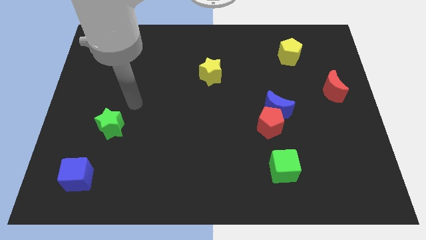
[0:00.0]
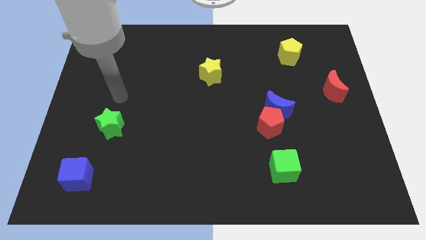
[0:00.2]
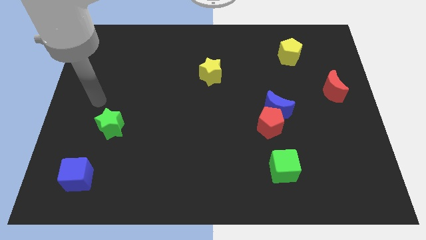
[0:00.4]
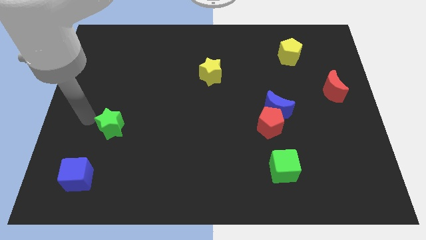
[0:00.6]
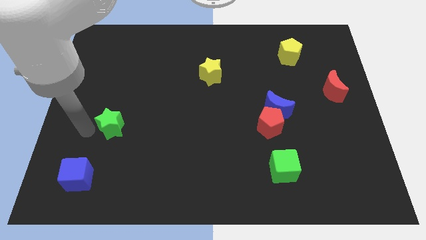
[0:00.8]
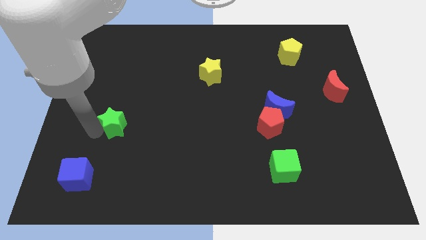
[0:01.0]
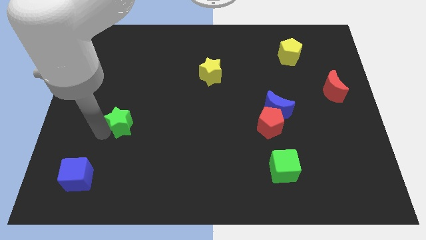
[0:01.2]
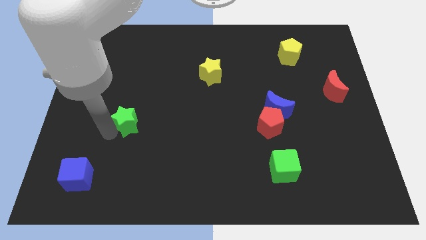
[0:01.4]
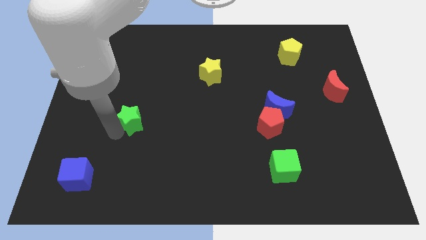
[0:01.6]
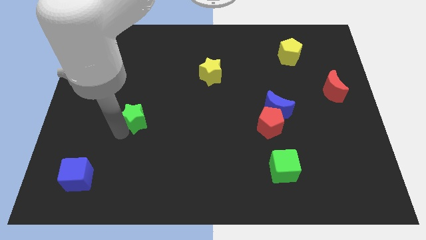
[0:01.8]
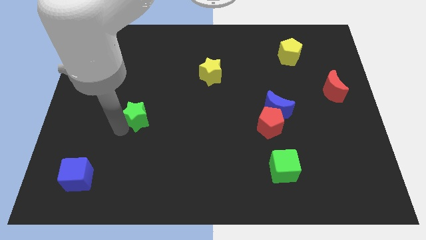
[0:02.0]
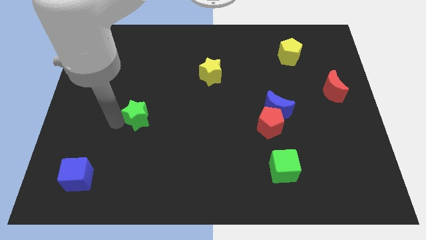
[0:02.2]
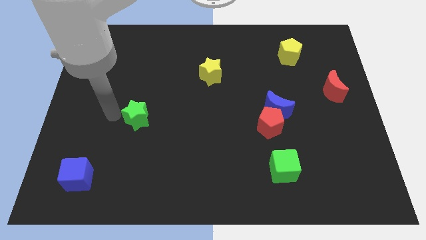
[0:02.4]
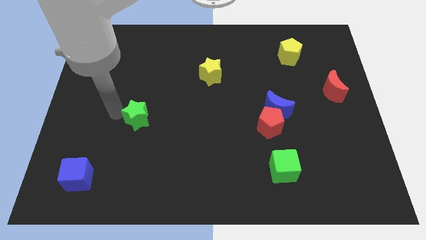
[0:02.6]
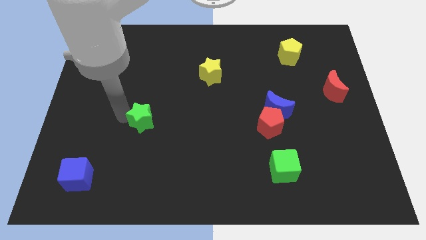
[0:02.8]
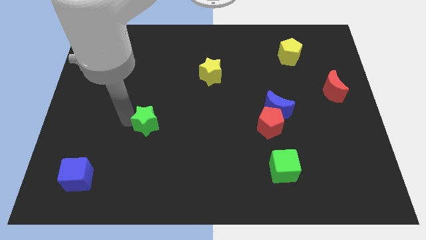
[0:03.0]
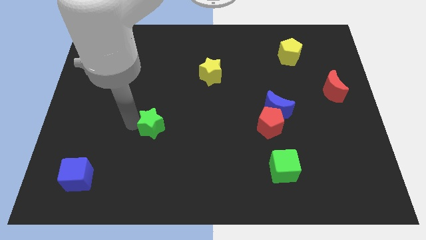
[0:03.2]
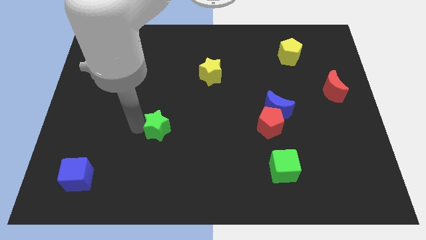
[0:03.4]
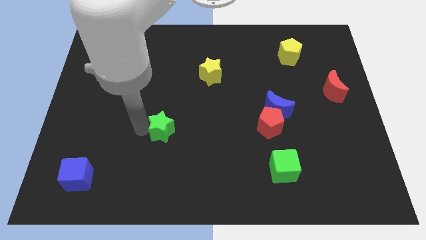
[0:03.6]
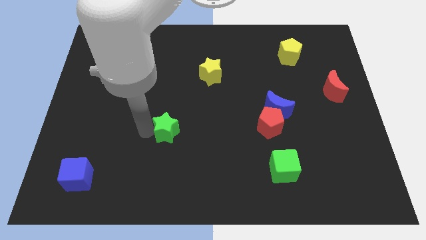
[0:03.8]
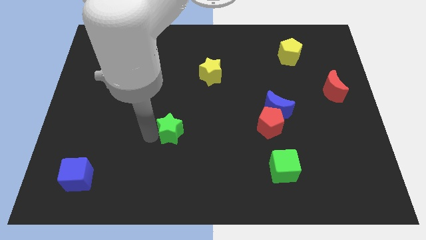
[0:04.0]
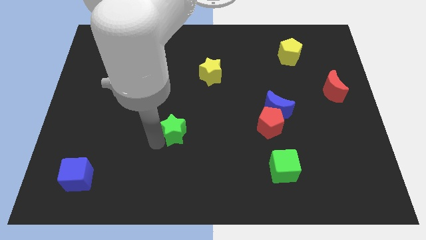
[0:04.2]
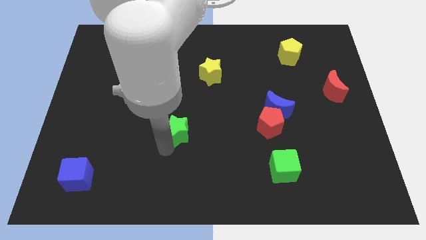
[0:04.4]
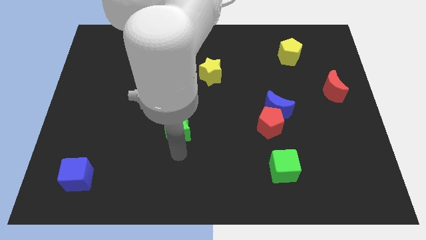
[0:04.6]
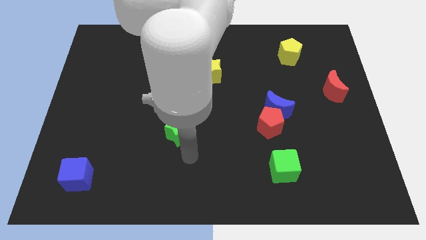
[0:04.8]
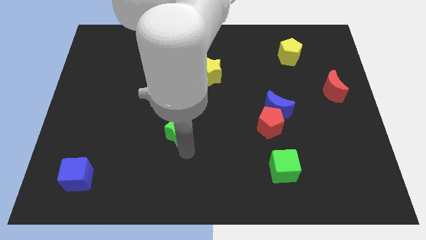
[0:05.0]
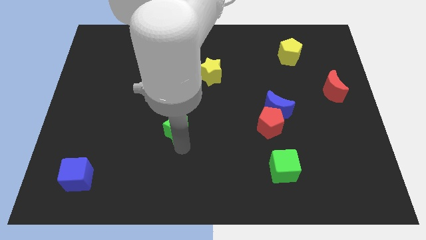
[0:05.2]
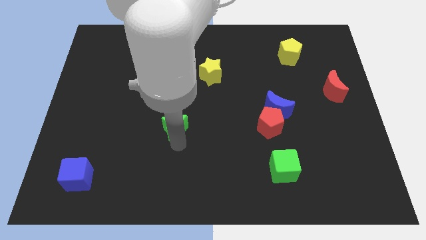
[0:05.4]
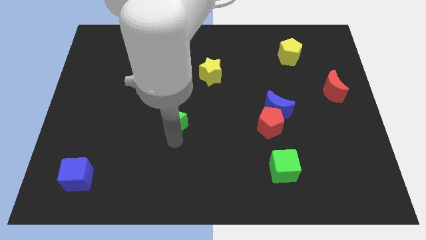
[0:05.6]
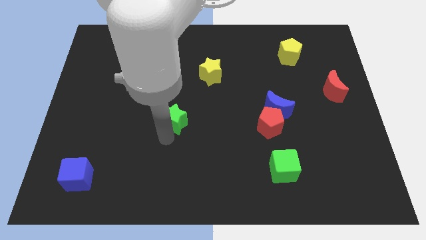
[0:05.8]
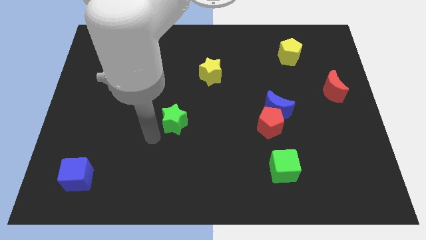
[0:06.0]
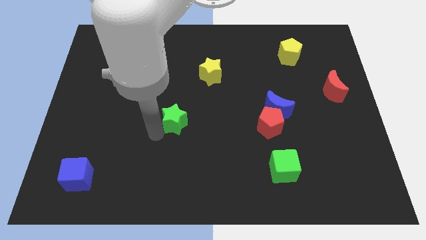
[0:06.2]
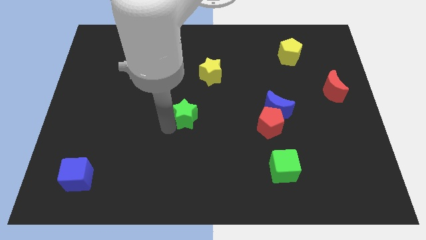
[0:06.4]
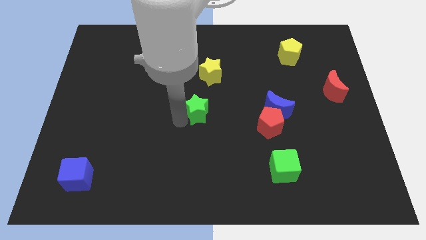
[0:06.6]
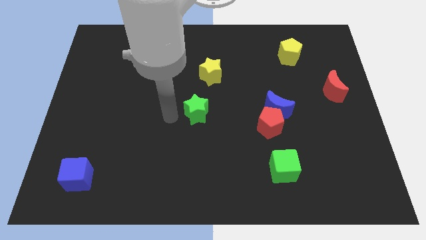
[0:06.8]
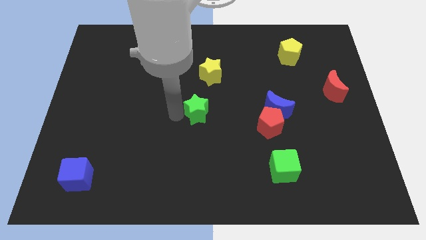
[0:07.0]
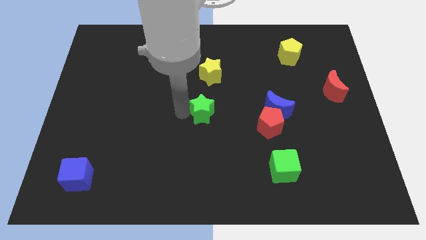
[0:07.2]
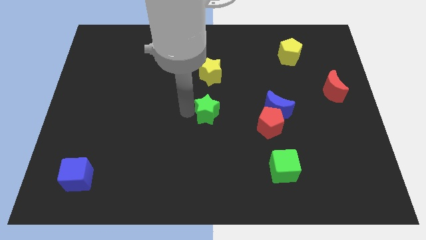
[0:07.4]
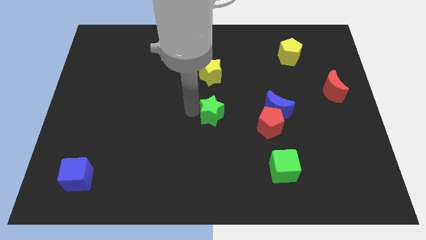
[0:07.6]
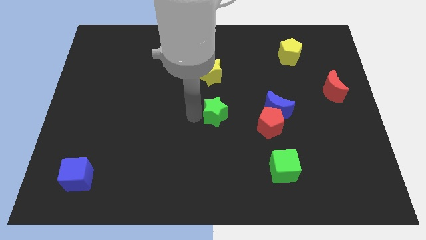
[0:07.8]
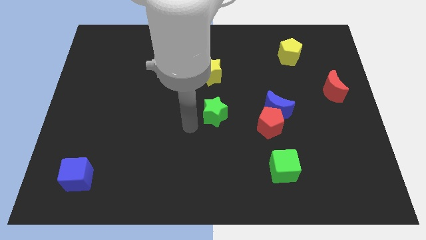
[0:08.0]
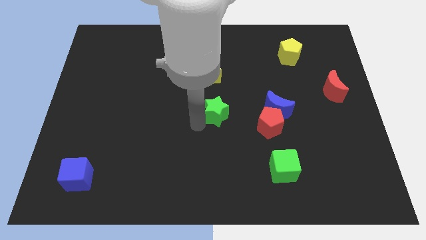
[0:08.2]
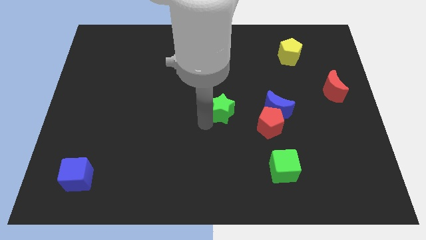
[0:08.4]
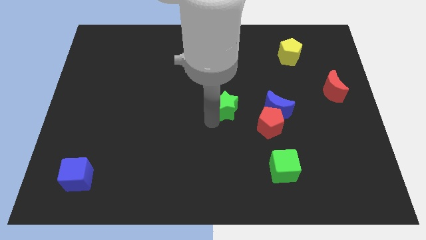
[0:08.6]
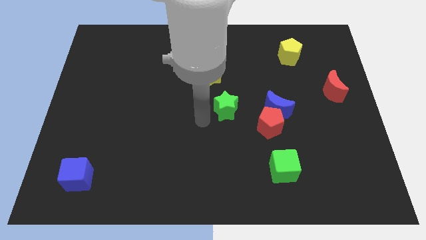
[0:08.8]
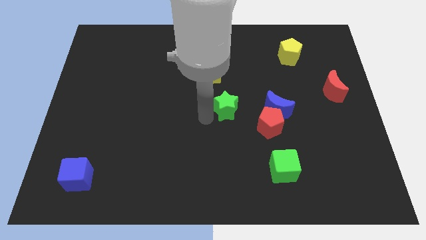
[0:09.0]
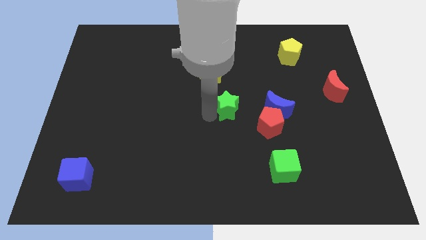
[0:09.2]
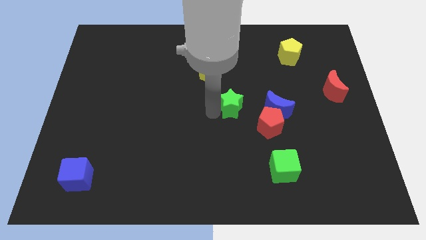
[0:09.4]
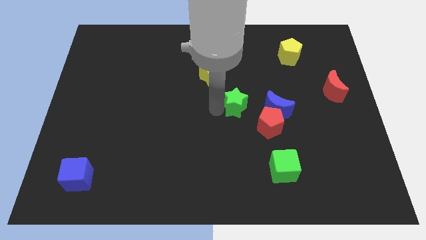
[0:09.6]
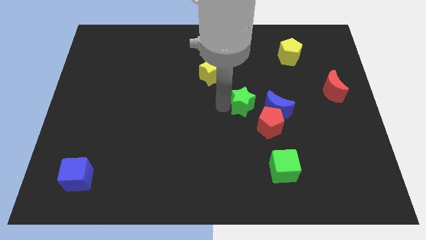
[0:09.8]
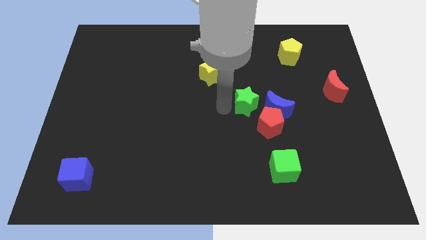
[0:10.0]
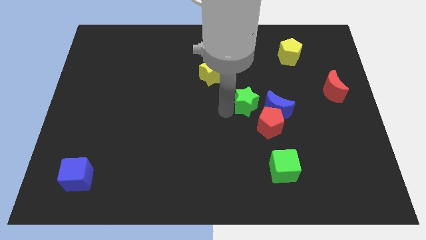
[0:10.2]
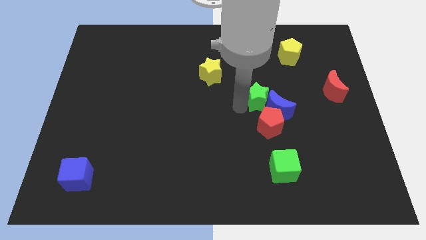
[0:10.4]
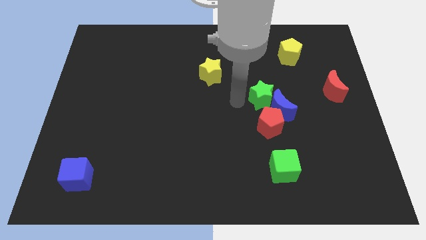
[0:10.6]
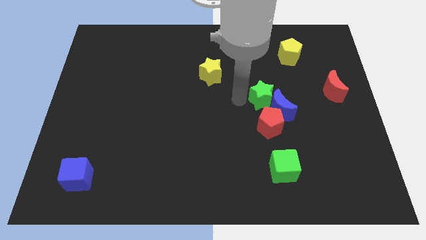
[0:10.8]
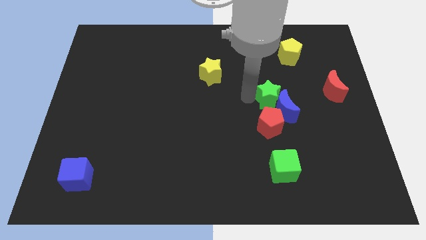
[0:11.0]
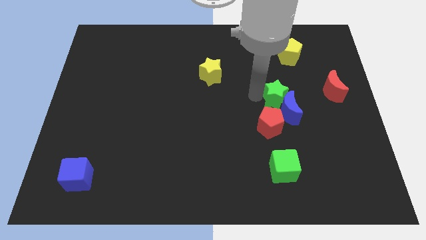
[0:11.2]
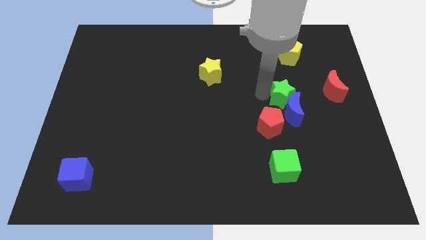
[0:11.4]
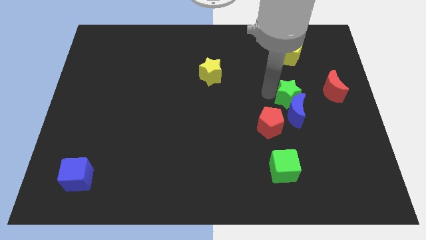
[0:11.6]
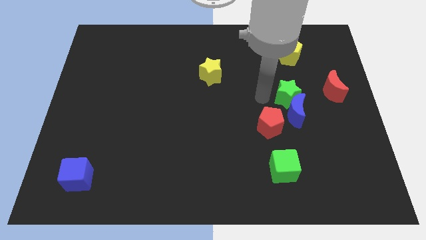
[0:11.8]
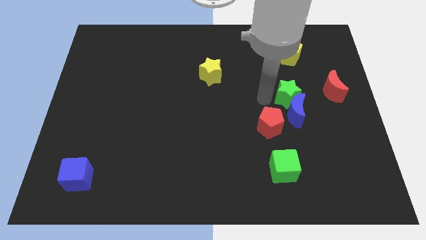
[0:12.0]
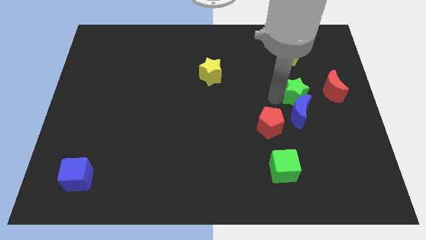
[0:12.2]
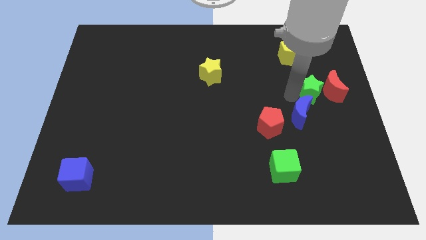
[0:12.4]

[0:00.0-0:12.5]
move the green star to the red moon

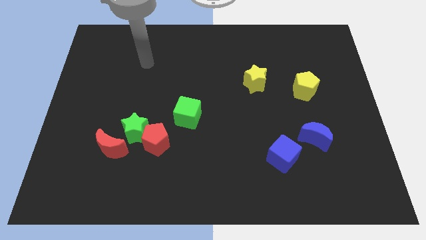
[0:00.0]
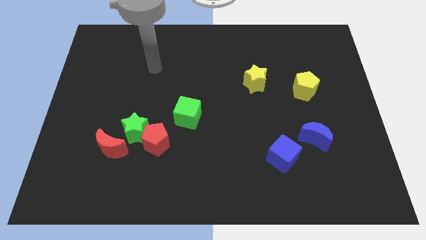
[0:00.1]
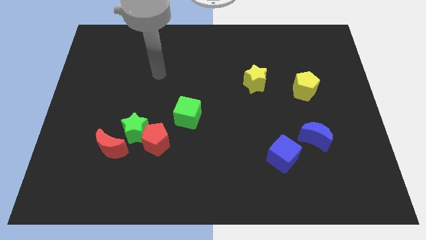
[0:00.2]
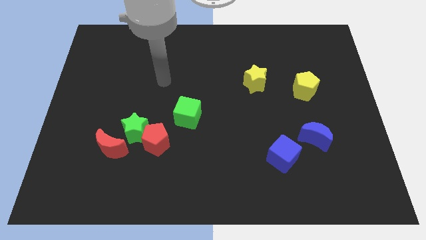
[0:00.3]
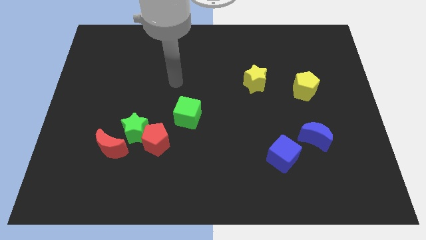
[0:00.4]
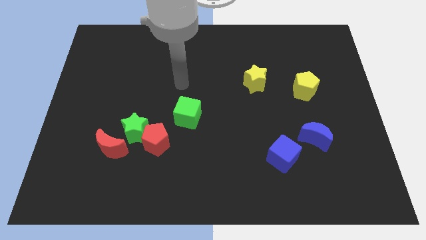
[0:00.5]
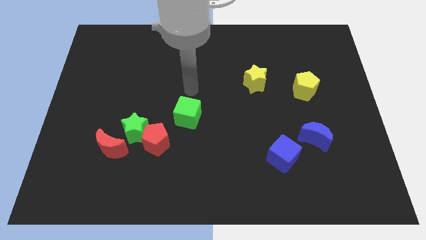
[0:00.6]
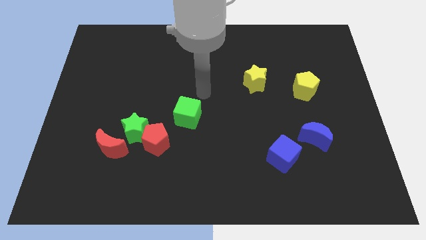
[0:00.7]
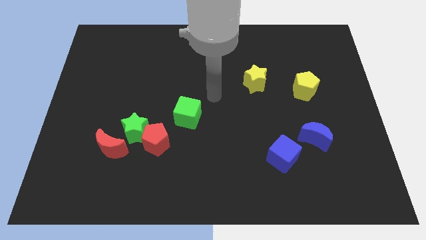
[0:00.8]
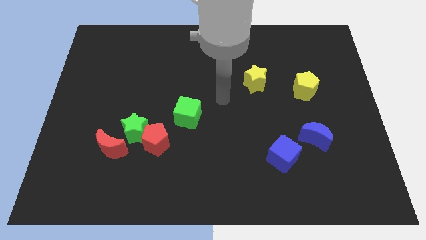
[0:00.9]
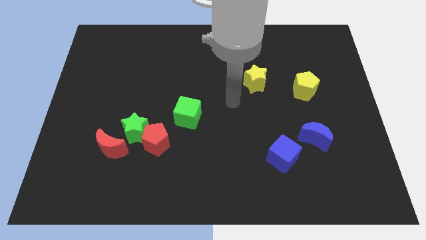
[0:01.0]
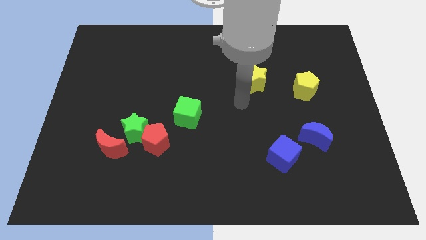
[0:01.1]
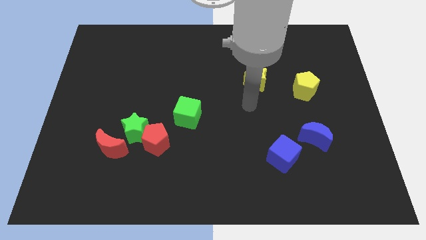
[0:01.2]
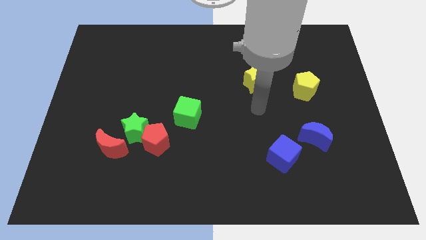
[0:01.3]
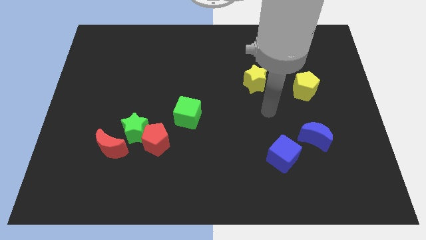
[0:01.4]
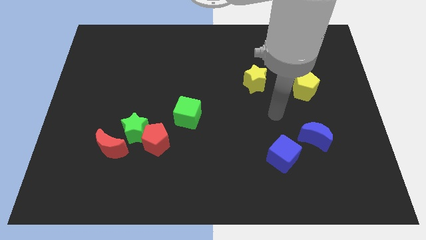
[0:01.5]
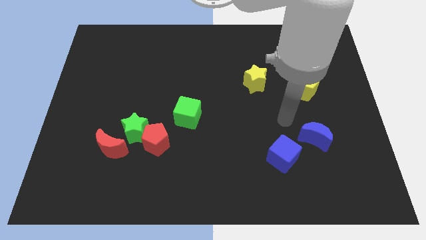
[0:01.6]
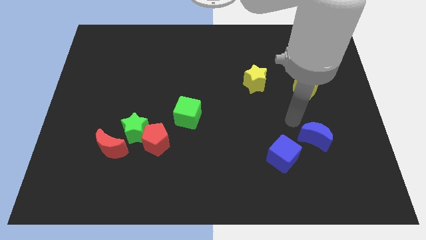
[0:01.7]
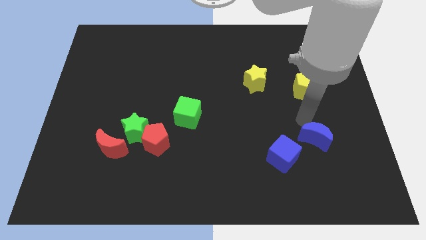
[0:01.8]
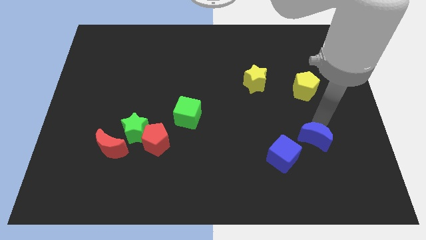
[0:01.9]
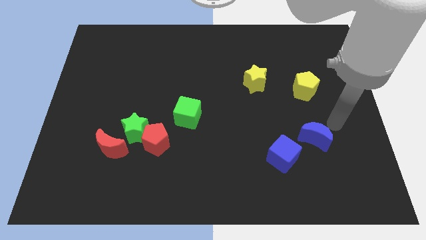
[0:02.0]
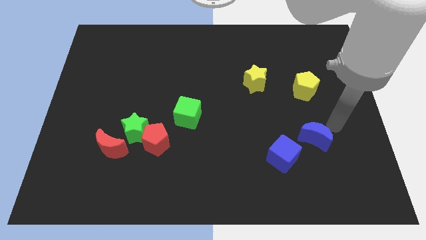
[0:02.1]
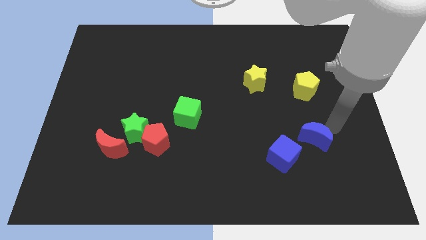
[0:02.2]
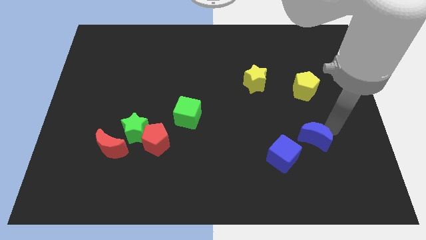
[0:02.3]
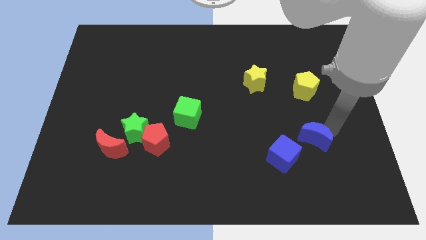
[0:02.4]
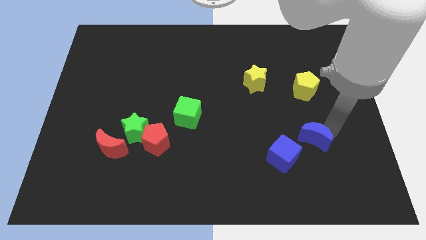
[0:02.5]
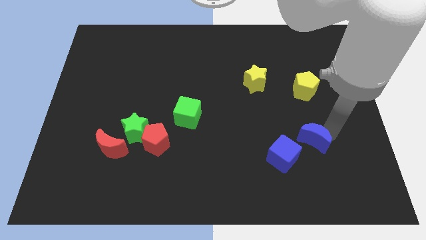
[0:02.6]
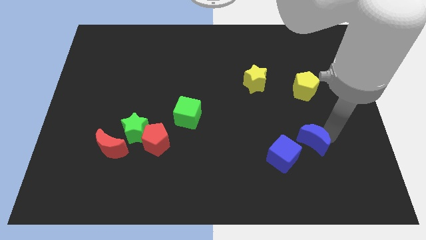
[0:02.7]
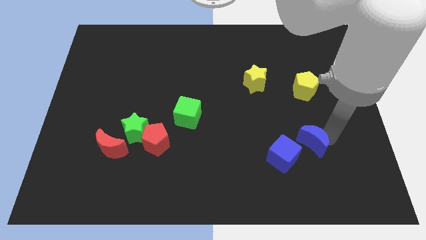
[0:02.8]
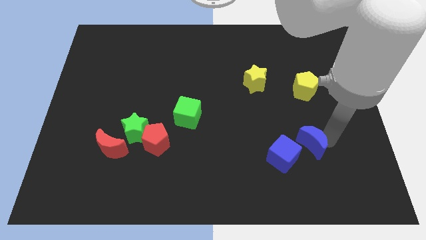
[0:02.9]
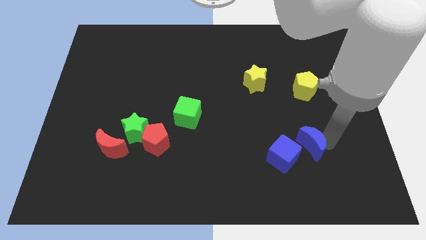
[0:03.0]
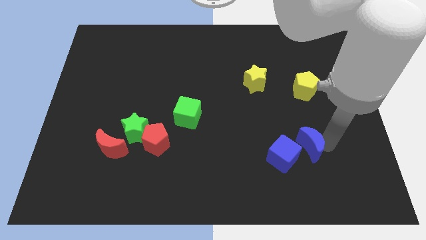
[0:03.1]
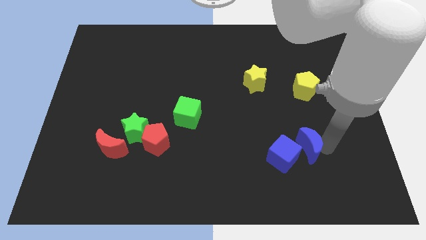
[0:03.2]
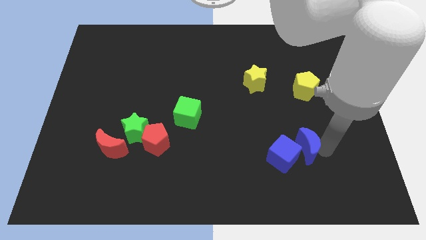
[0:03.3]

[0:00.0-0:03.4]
slide the blue moon towards the blue cube
